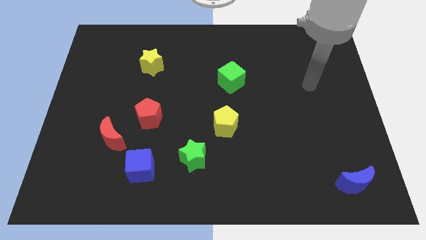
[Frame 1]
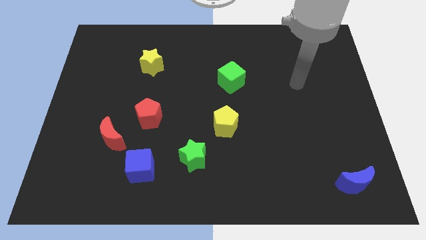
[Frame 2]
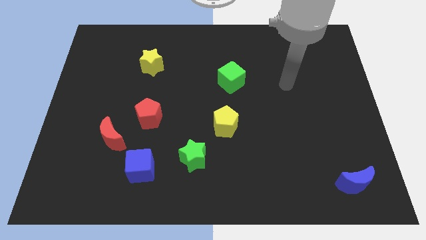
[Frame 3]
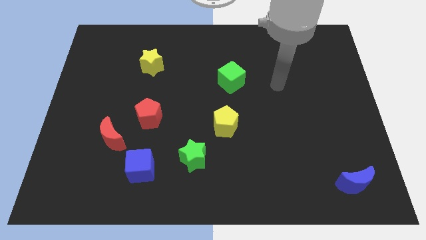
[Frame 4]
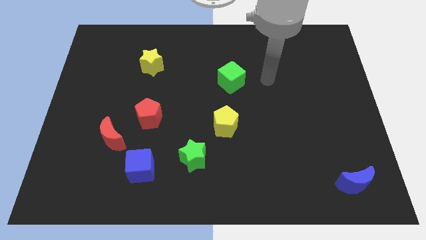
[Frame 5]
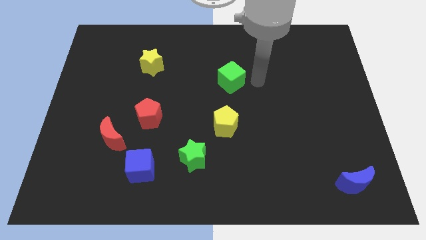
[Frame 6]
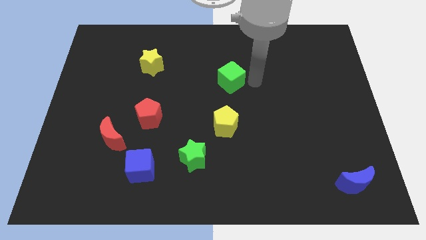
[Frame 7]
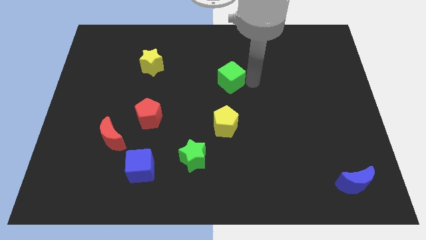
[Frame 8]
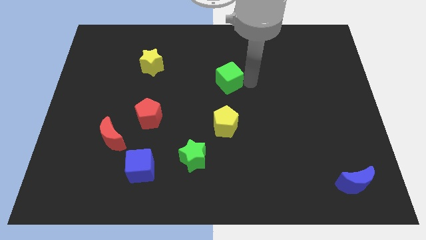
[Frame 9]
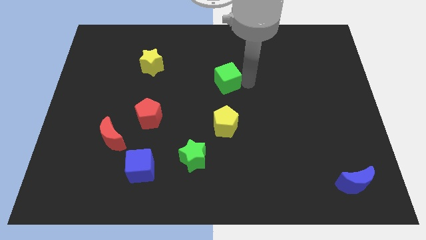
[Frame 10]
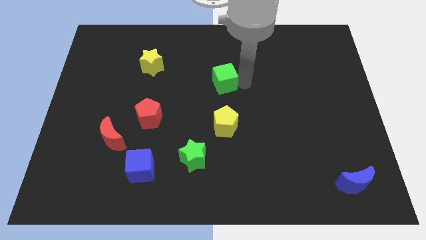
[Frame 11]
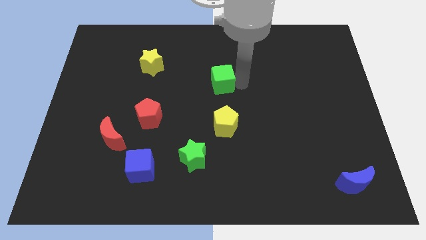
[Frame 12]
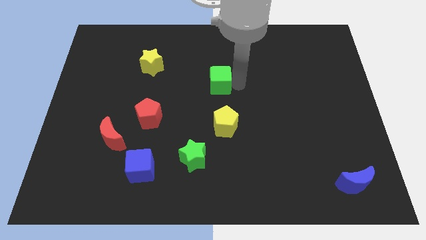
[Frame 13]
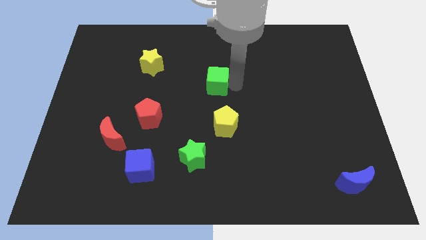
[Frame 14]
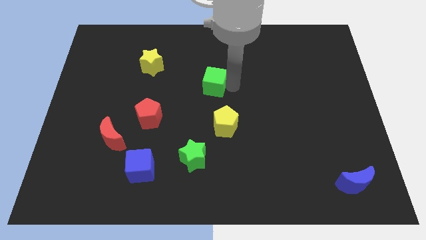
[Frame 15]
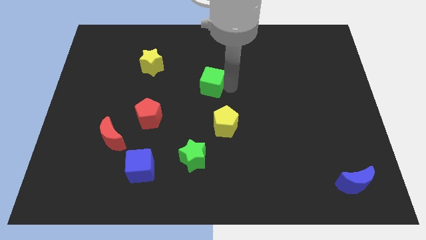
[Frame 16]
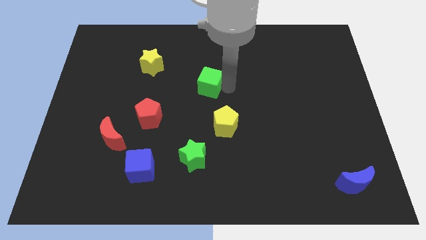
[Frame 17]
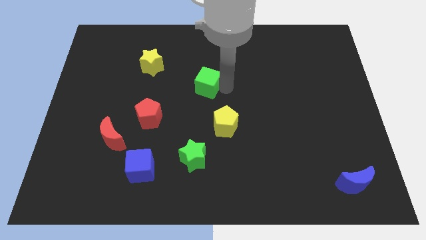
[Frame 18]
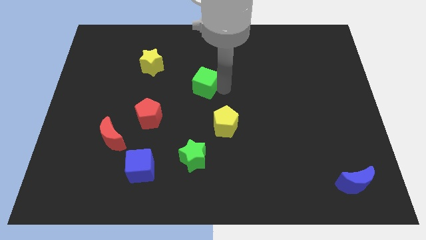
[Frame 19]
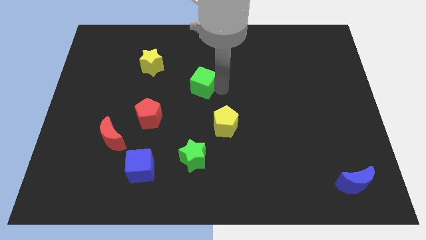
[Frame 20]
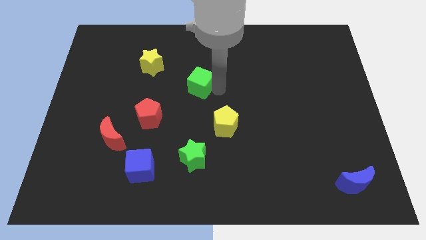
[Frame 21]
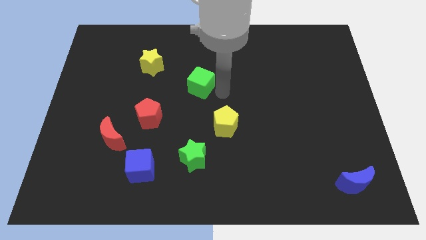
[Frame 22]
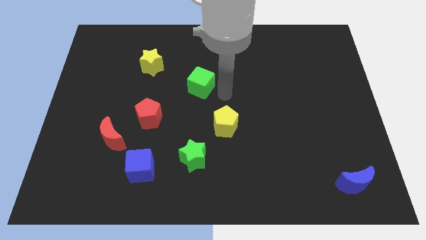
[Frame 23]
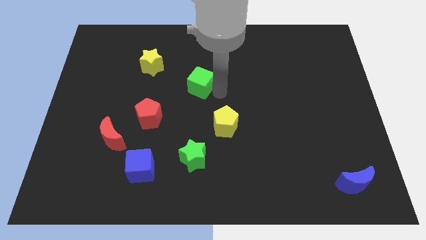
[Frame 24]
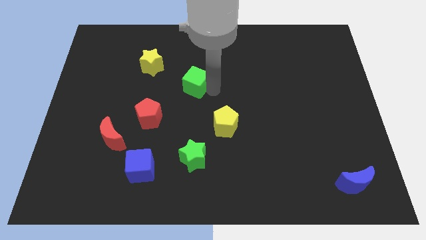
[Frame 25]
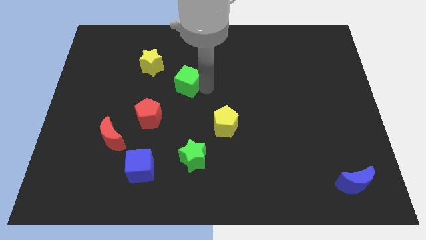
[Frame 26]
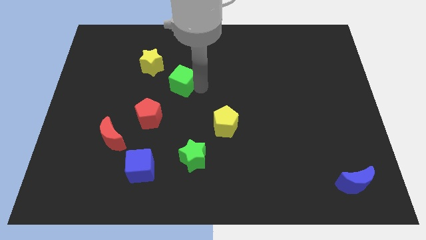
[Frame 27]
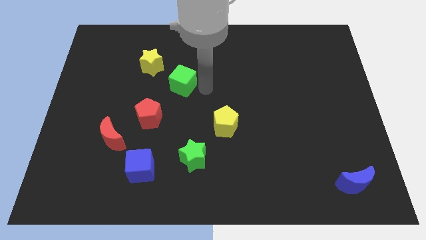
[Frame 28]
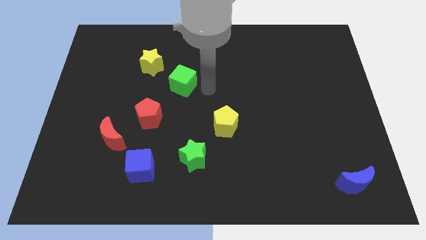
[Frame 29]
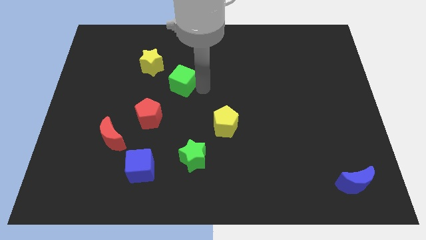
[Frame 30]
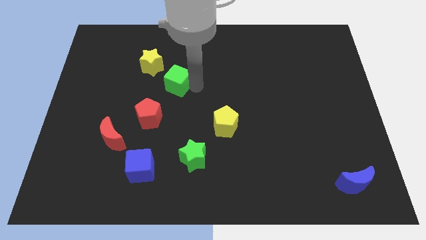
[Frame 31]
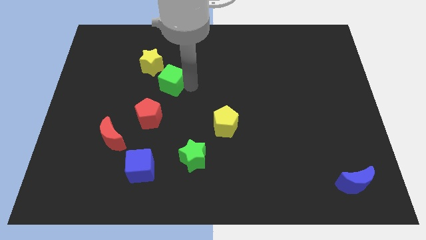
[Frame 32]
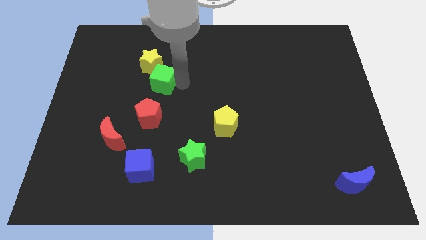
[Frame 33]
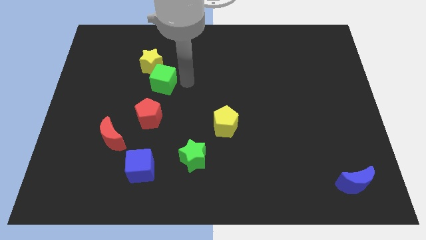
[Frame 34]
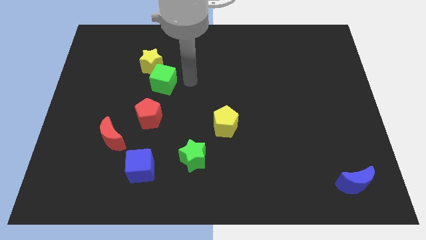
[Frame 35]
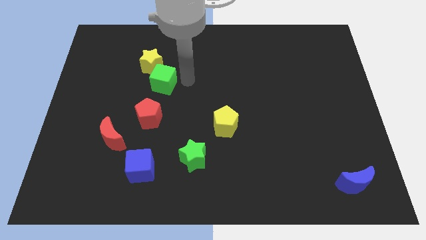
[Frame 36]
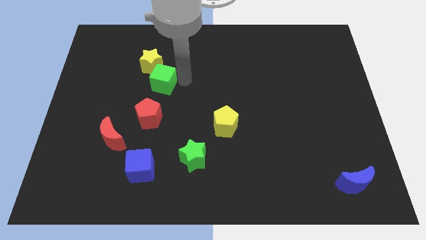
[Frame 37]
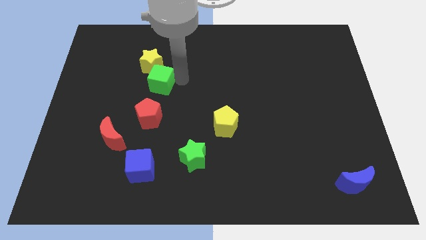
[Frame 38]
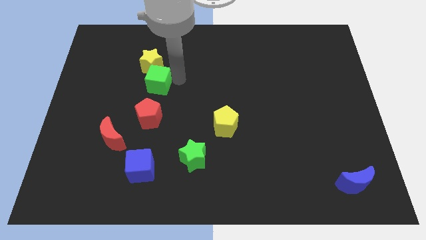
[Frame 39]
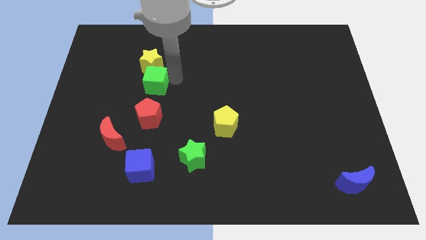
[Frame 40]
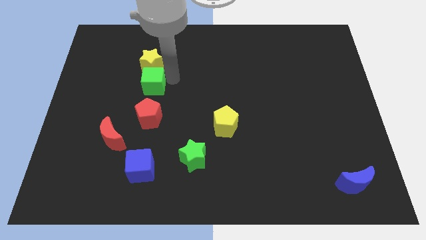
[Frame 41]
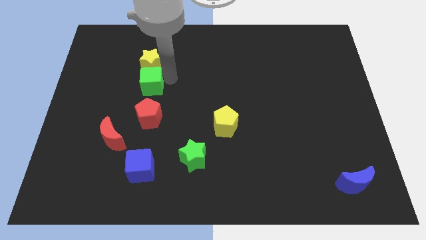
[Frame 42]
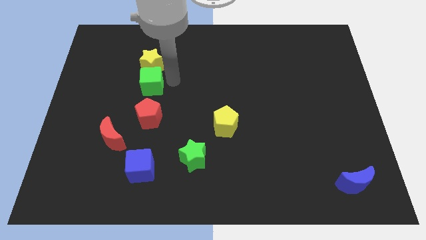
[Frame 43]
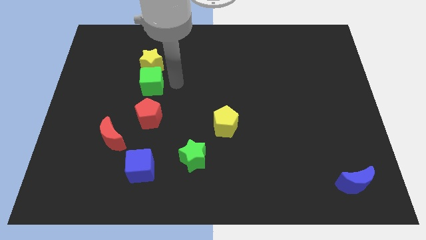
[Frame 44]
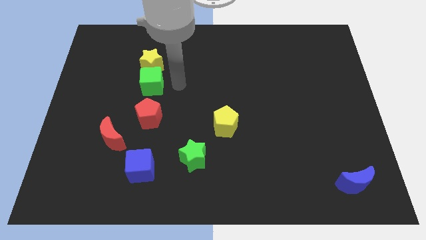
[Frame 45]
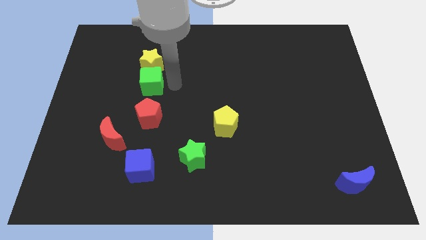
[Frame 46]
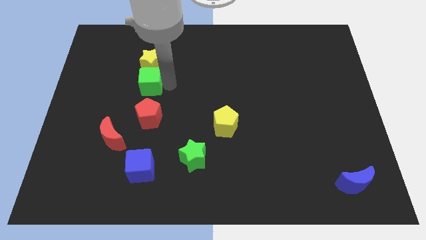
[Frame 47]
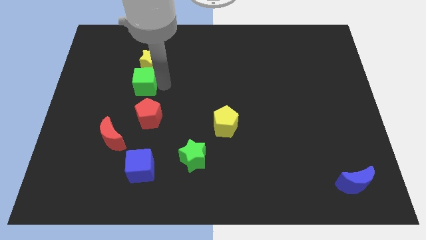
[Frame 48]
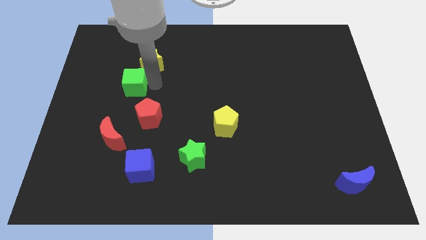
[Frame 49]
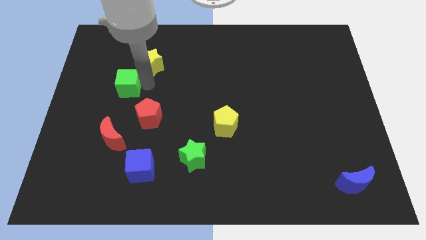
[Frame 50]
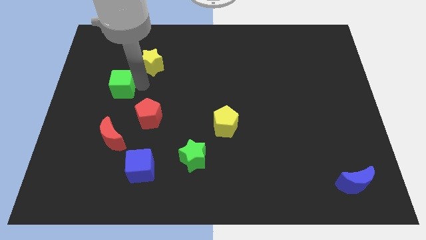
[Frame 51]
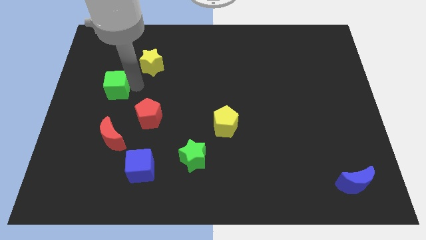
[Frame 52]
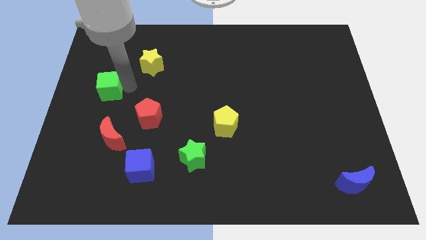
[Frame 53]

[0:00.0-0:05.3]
put the green cube to the center left

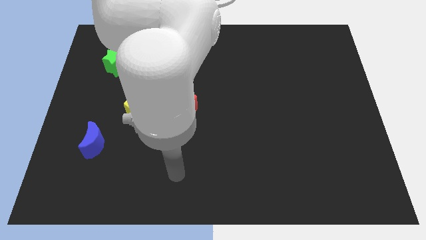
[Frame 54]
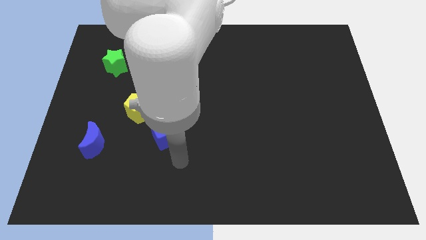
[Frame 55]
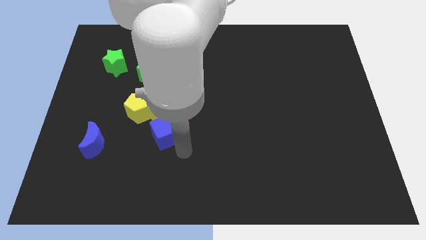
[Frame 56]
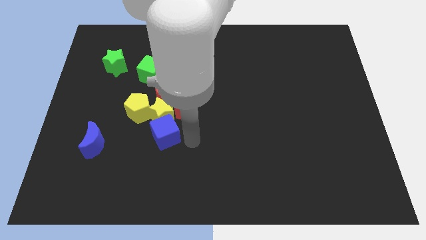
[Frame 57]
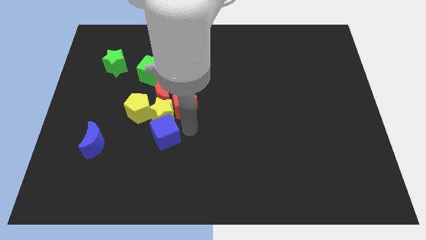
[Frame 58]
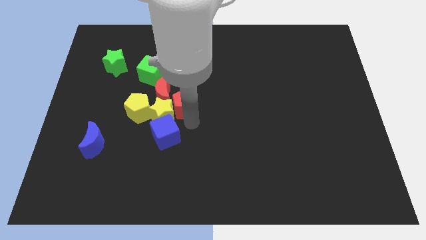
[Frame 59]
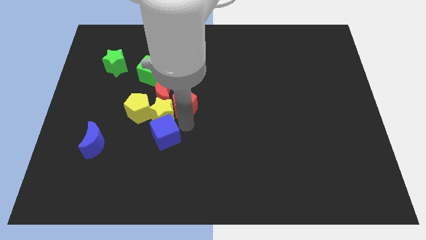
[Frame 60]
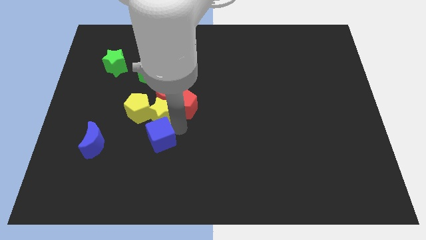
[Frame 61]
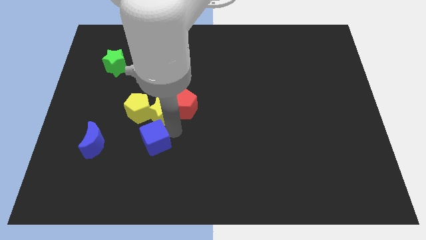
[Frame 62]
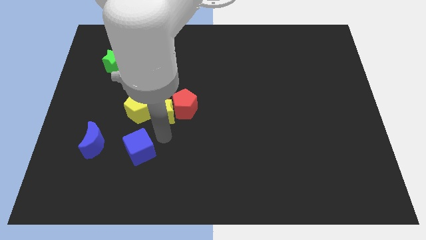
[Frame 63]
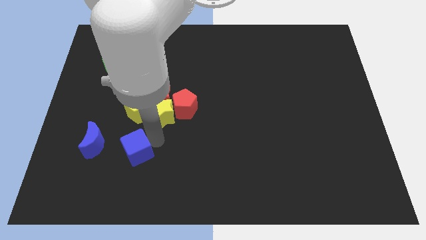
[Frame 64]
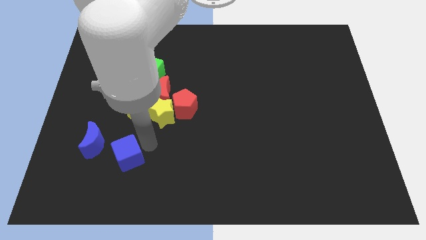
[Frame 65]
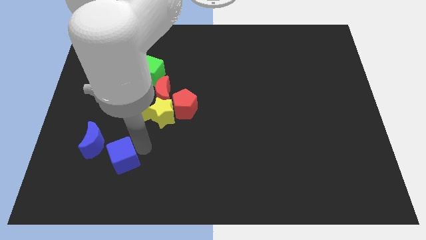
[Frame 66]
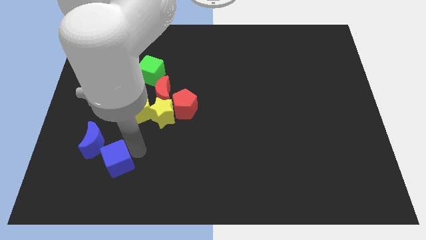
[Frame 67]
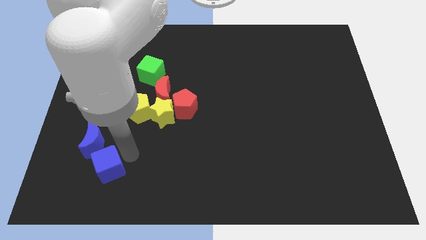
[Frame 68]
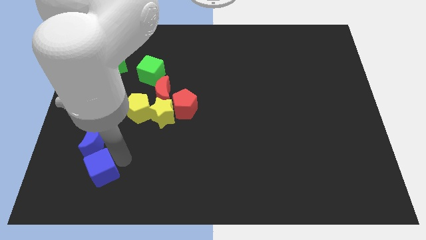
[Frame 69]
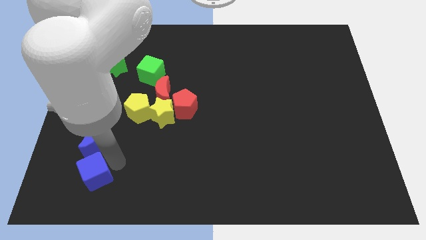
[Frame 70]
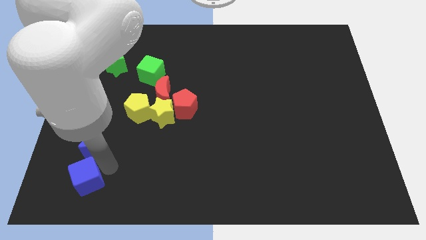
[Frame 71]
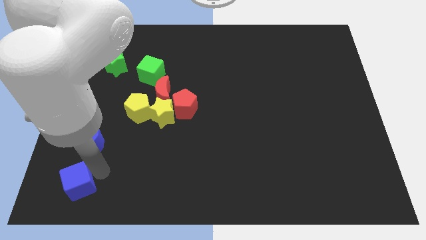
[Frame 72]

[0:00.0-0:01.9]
move the blue cube to the lower left corner
